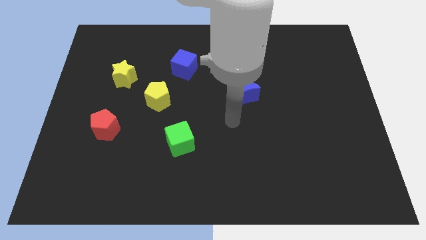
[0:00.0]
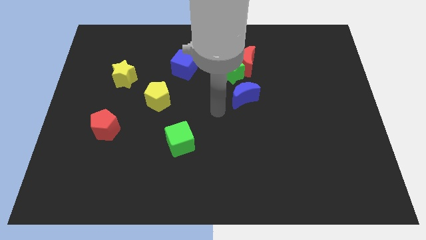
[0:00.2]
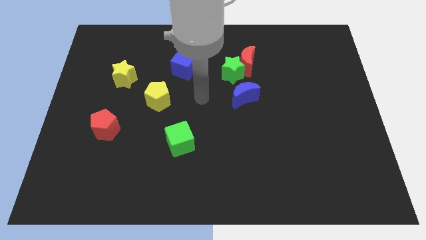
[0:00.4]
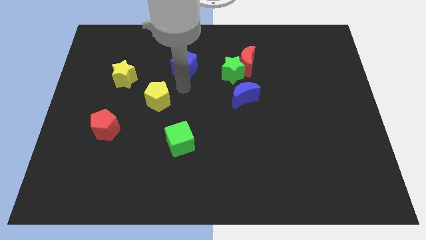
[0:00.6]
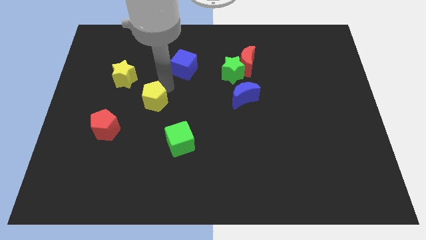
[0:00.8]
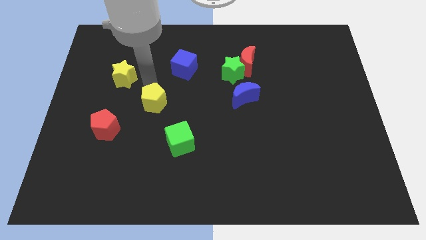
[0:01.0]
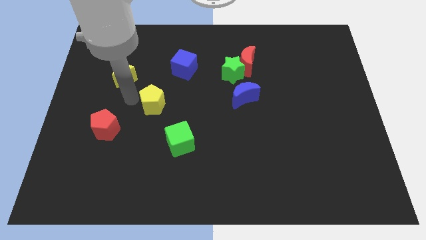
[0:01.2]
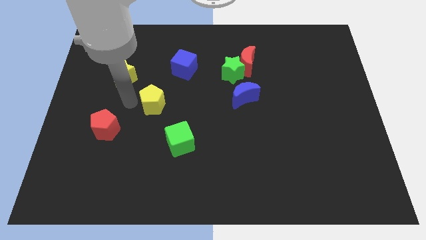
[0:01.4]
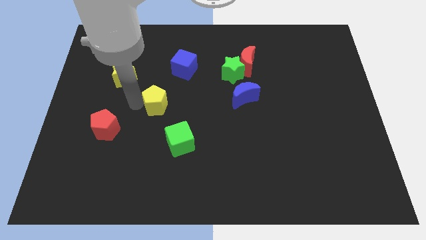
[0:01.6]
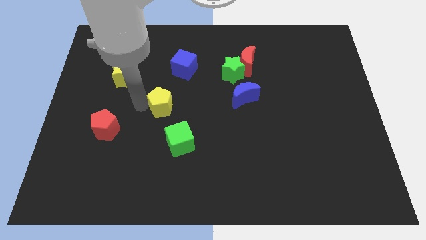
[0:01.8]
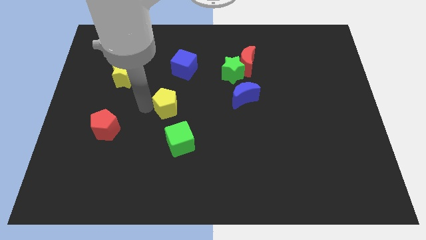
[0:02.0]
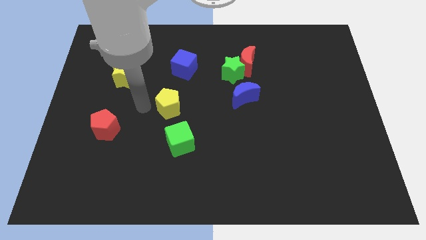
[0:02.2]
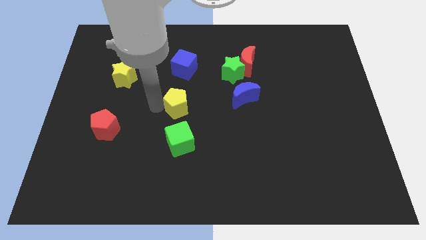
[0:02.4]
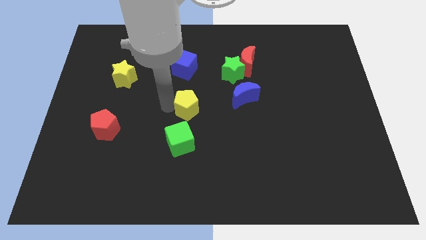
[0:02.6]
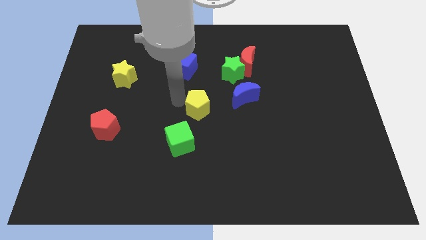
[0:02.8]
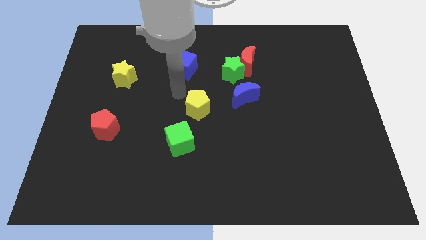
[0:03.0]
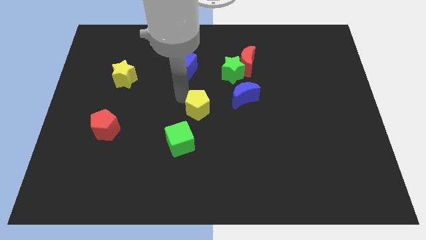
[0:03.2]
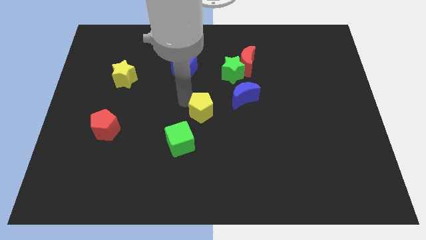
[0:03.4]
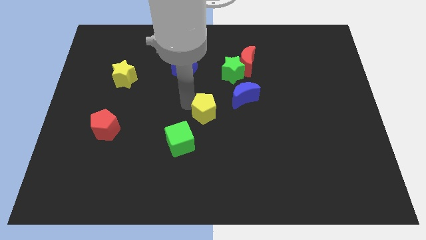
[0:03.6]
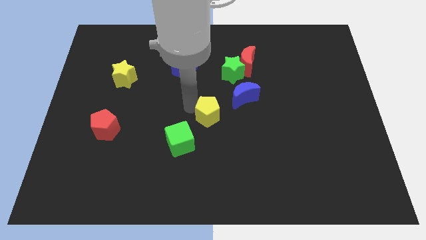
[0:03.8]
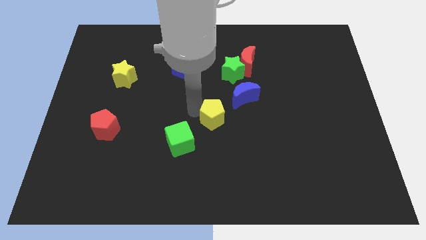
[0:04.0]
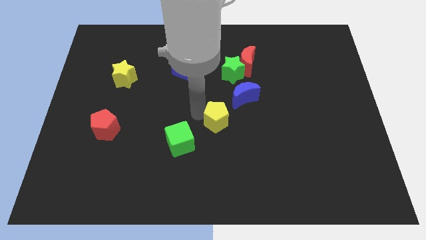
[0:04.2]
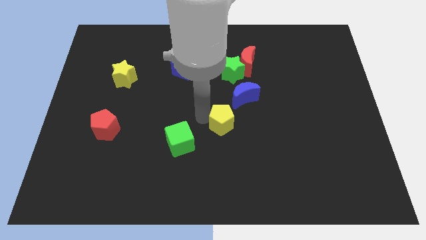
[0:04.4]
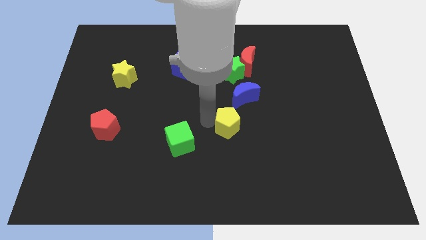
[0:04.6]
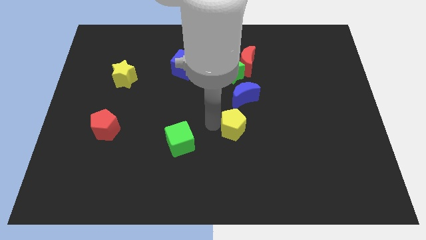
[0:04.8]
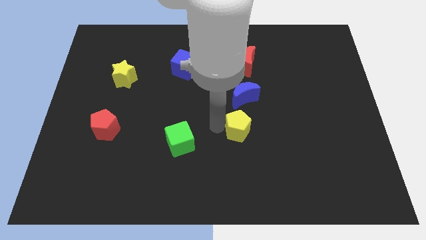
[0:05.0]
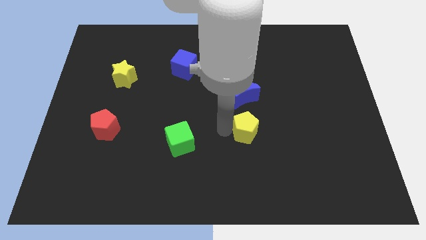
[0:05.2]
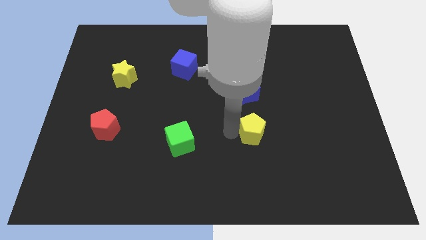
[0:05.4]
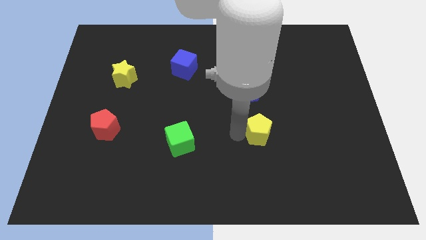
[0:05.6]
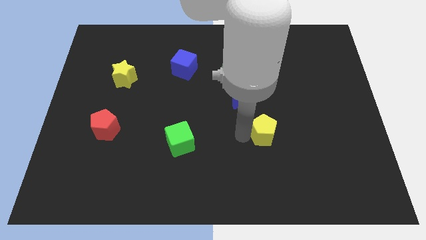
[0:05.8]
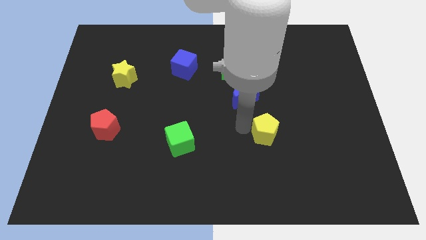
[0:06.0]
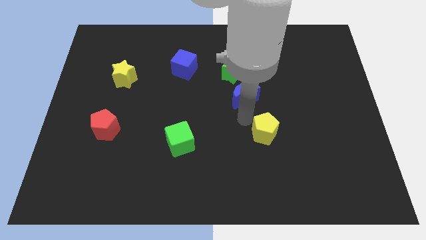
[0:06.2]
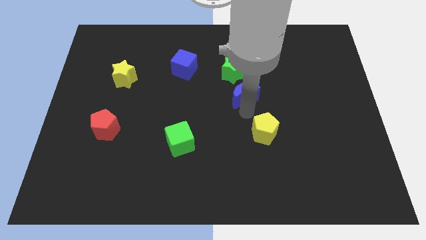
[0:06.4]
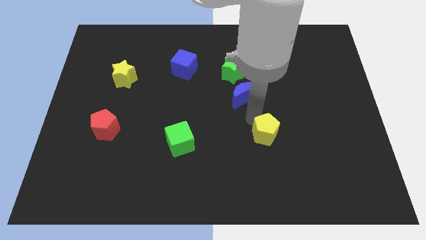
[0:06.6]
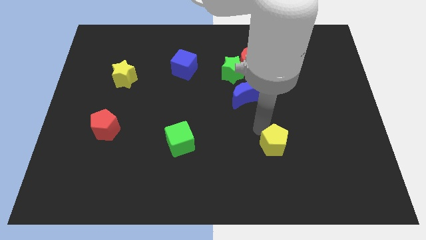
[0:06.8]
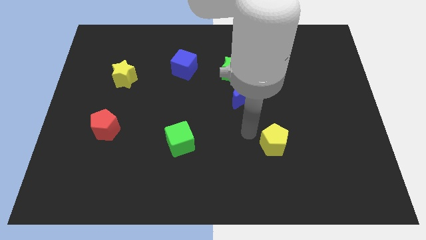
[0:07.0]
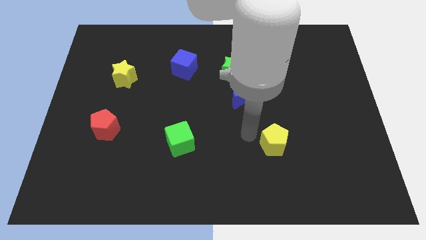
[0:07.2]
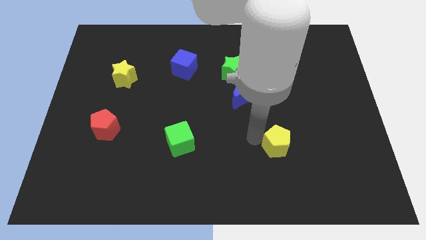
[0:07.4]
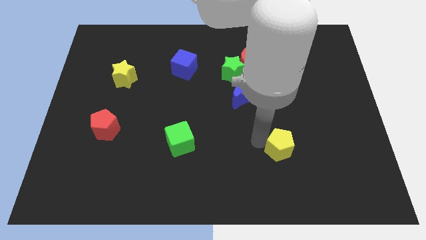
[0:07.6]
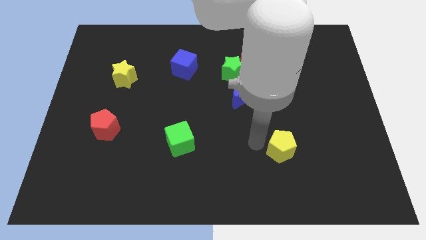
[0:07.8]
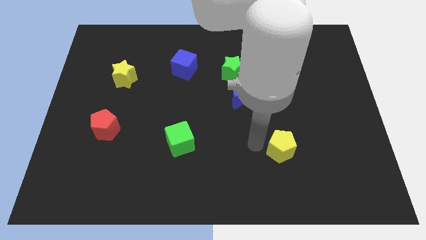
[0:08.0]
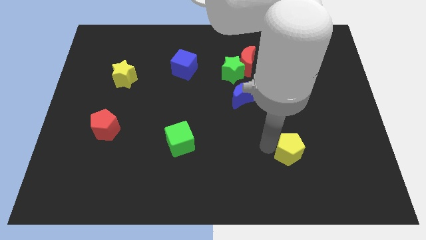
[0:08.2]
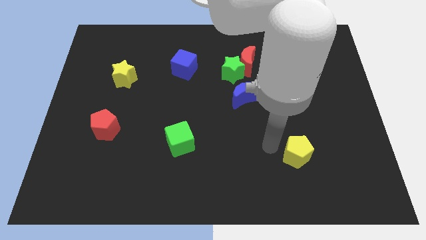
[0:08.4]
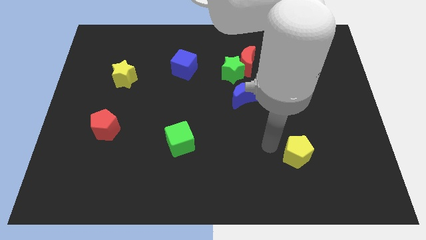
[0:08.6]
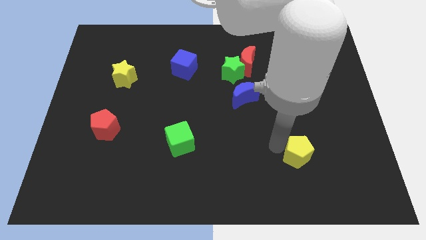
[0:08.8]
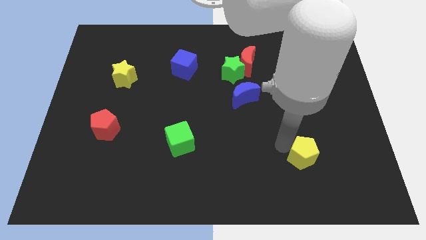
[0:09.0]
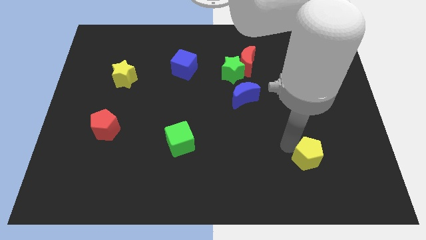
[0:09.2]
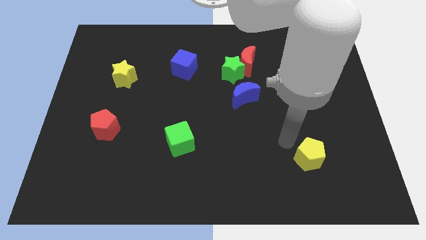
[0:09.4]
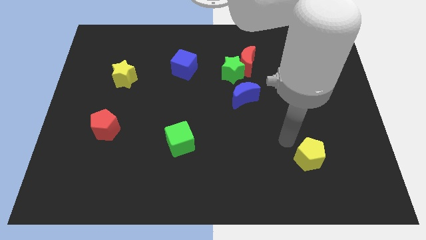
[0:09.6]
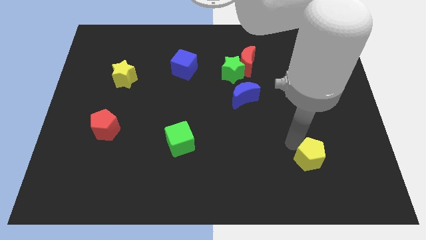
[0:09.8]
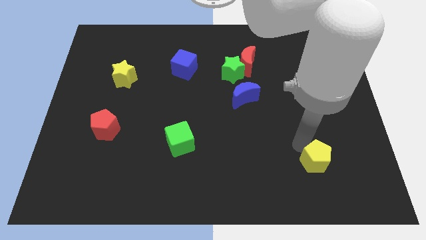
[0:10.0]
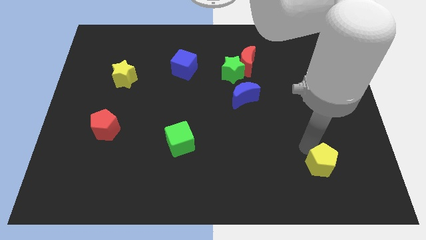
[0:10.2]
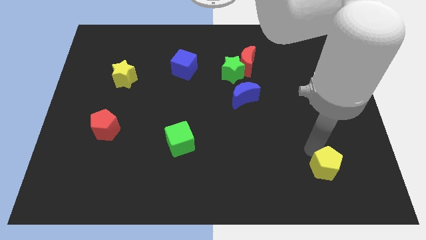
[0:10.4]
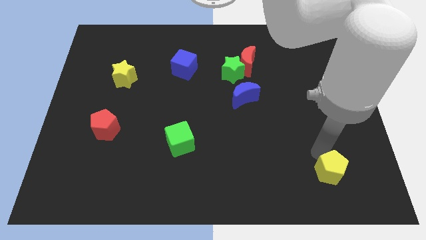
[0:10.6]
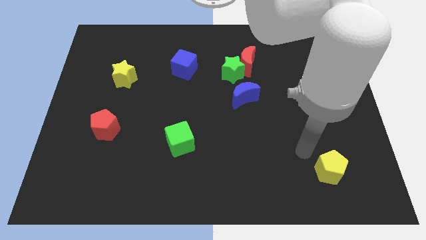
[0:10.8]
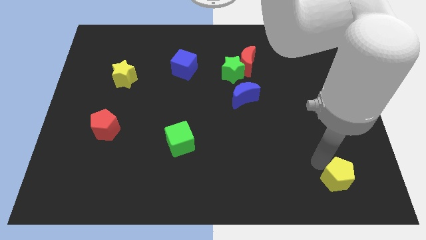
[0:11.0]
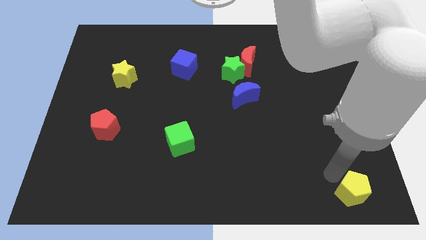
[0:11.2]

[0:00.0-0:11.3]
push the yellow pentagon to the bottom right

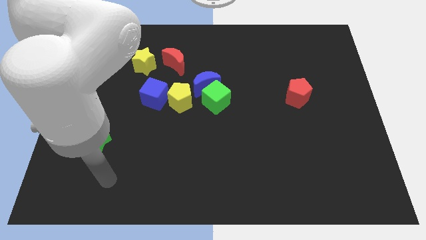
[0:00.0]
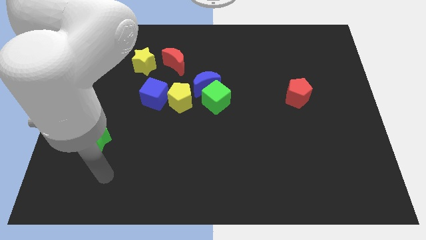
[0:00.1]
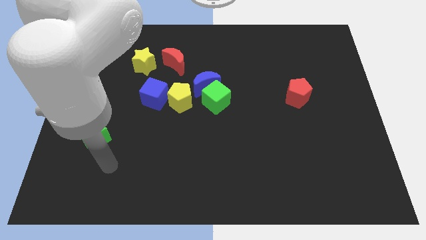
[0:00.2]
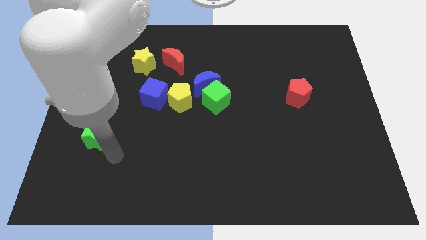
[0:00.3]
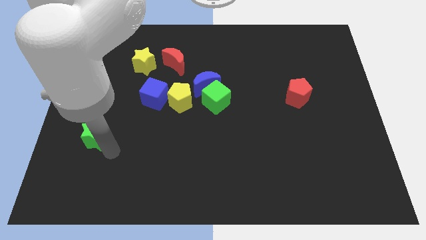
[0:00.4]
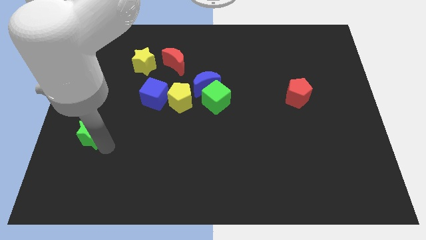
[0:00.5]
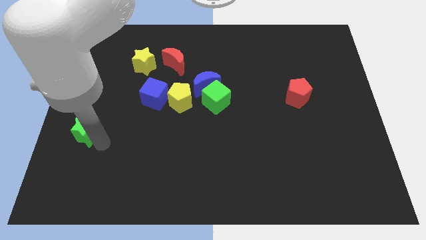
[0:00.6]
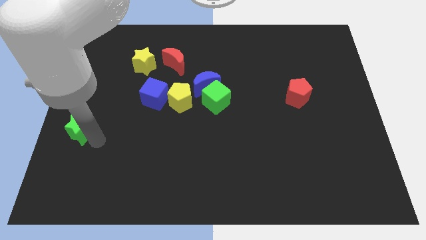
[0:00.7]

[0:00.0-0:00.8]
move the green star to the left side of the board

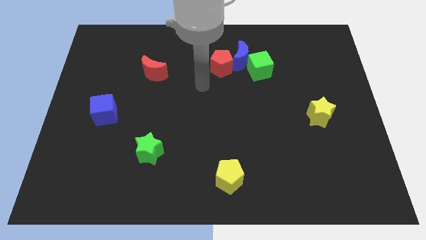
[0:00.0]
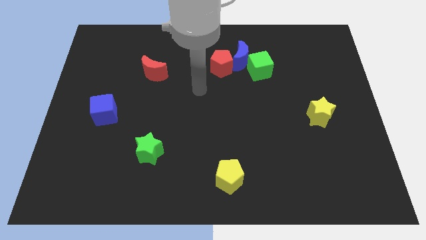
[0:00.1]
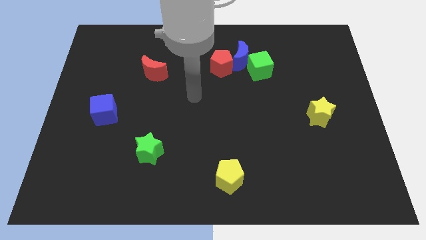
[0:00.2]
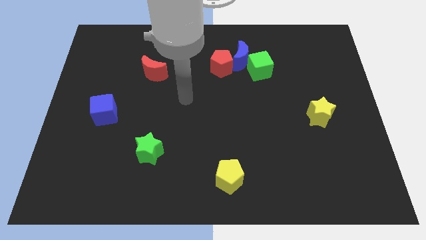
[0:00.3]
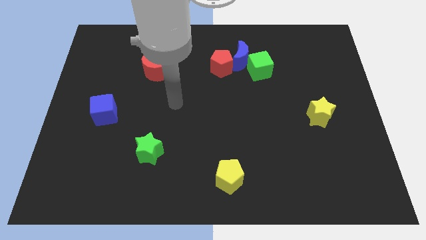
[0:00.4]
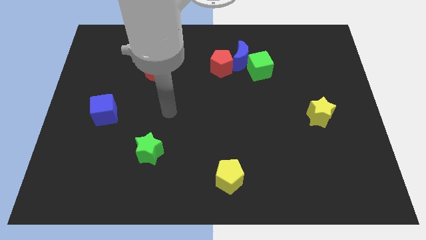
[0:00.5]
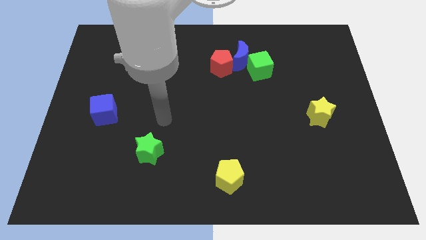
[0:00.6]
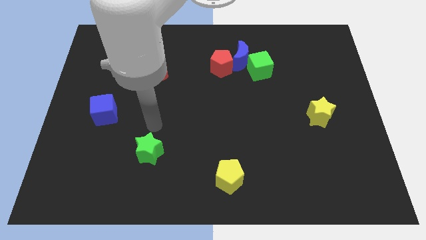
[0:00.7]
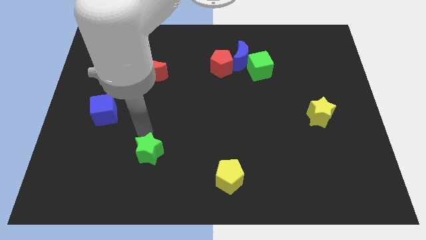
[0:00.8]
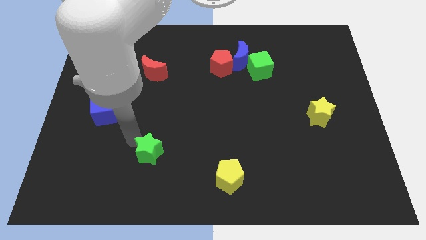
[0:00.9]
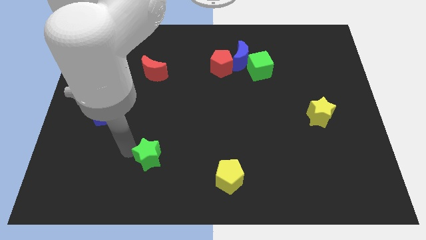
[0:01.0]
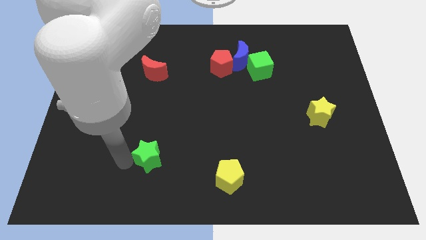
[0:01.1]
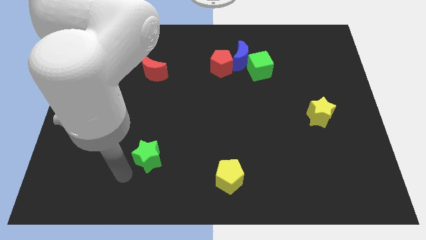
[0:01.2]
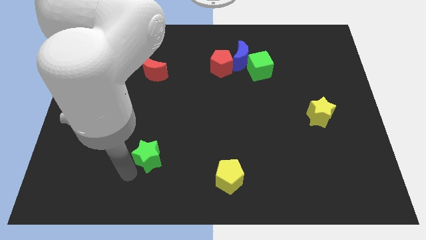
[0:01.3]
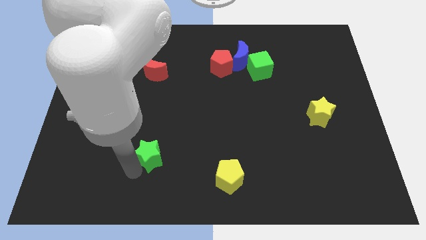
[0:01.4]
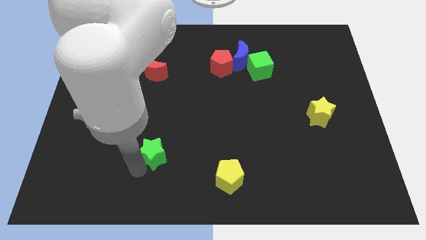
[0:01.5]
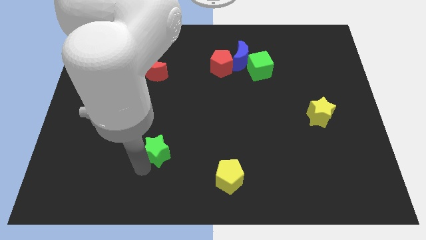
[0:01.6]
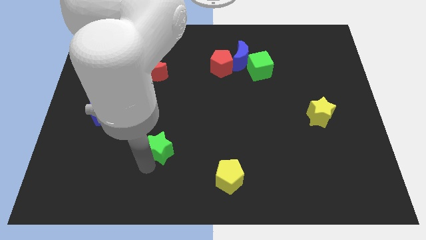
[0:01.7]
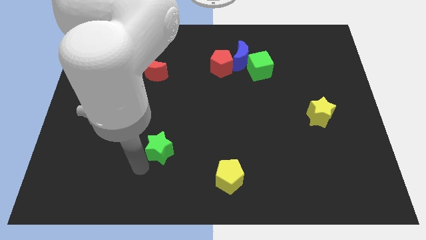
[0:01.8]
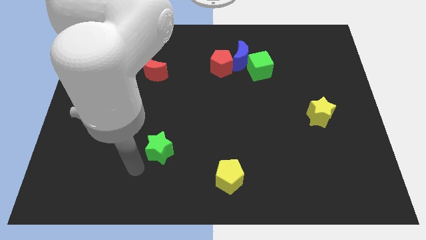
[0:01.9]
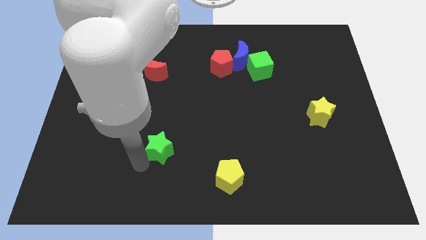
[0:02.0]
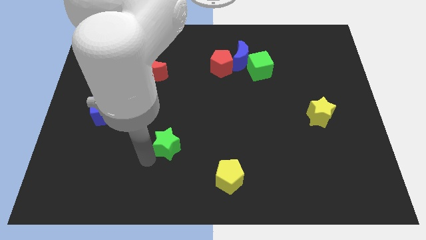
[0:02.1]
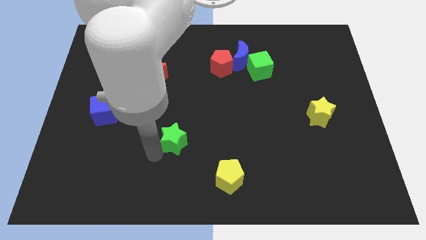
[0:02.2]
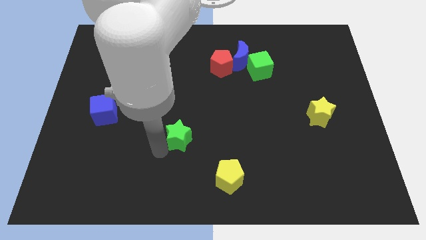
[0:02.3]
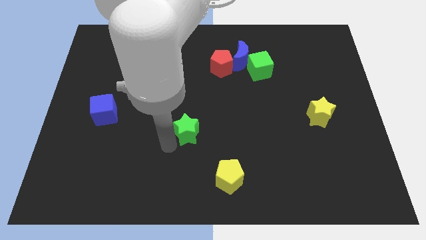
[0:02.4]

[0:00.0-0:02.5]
move the green star to the middle
